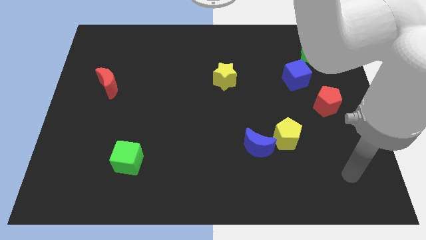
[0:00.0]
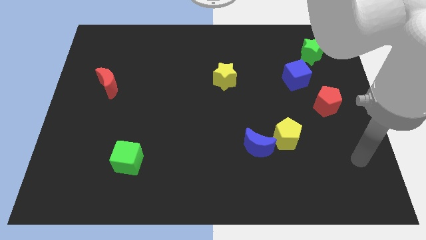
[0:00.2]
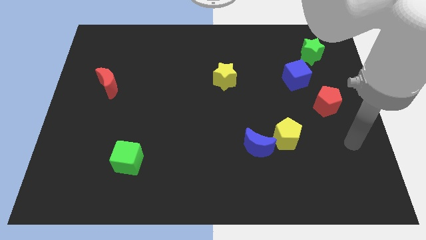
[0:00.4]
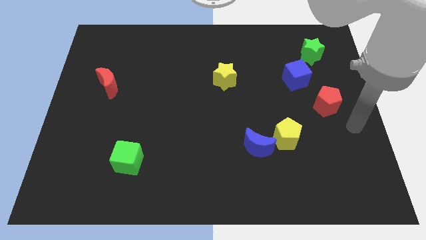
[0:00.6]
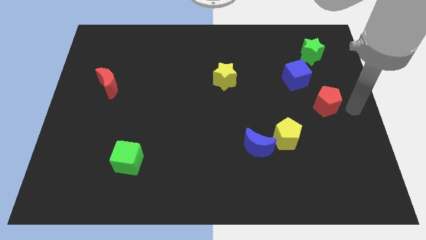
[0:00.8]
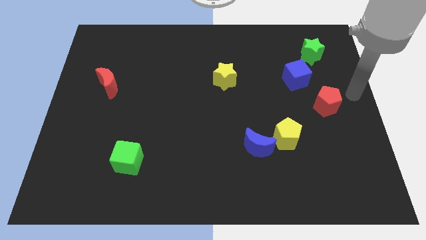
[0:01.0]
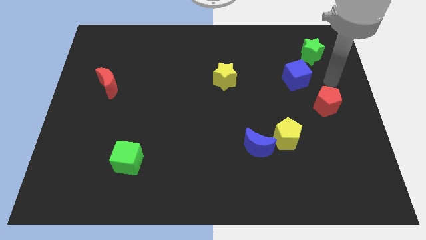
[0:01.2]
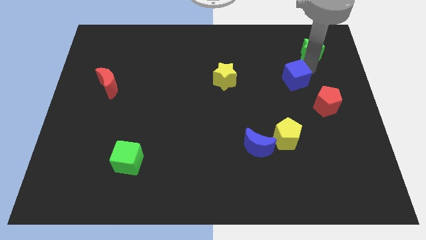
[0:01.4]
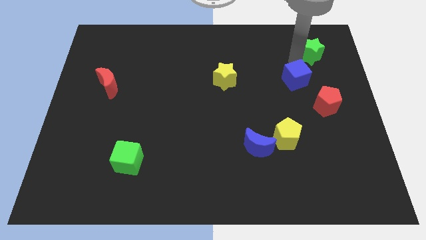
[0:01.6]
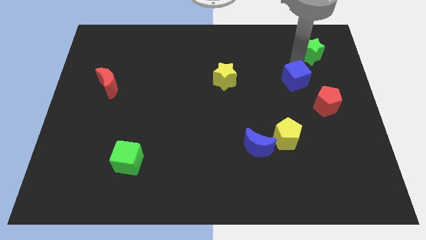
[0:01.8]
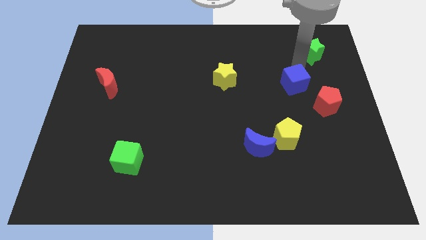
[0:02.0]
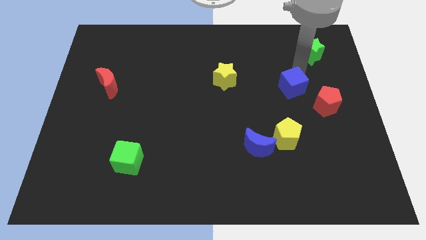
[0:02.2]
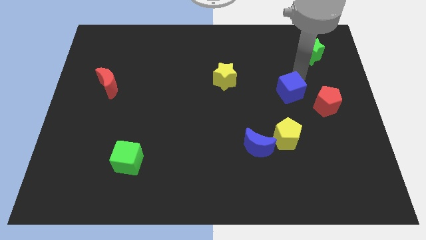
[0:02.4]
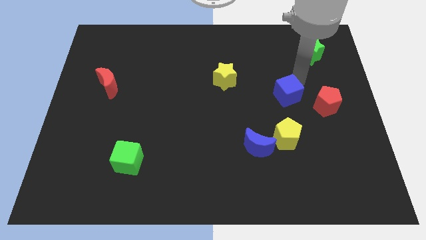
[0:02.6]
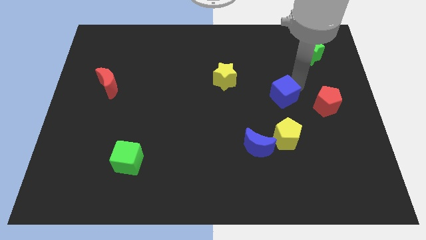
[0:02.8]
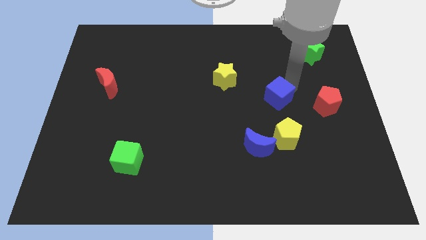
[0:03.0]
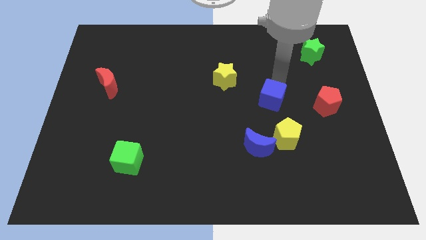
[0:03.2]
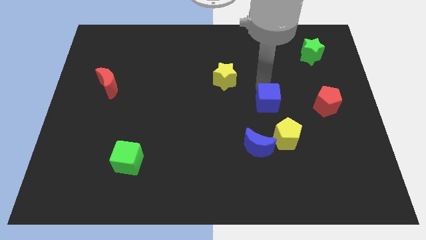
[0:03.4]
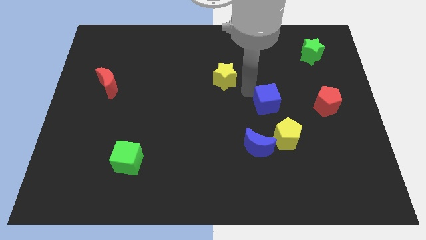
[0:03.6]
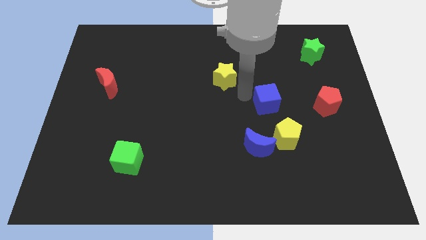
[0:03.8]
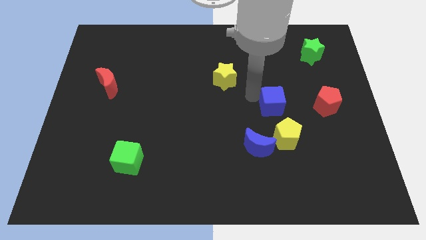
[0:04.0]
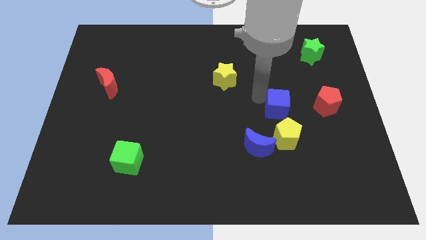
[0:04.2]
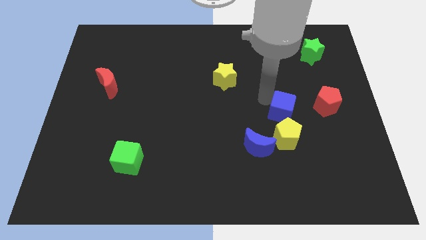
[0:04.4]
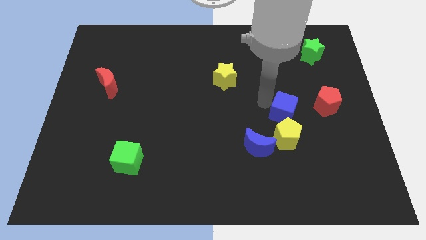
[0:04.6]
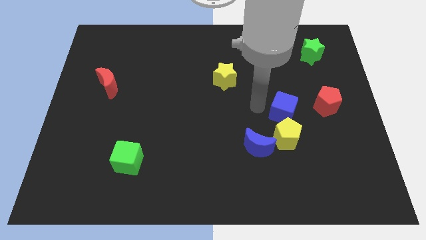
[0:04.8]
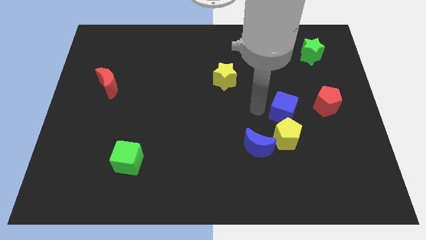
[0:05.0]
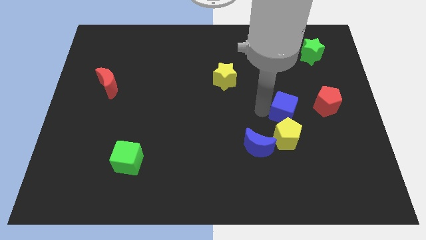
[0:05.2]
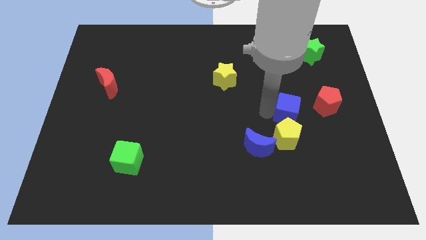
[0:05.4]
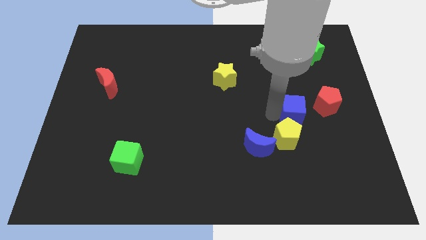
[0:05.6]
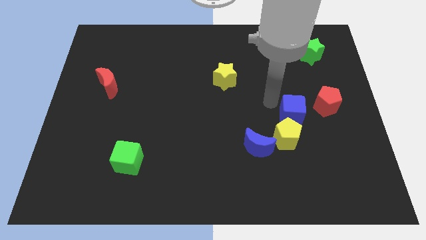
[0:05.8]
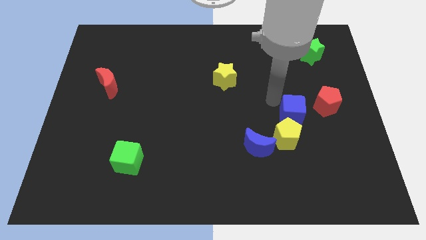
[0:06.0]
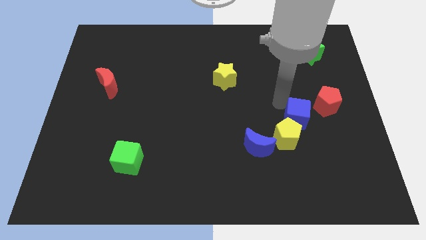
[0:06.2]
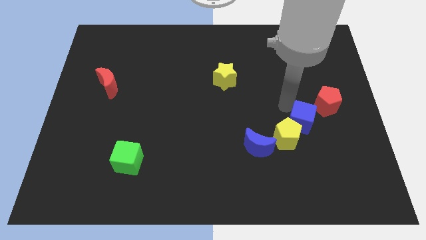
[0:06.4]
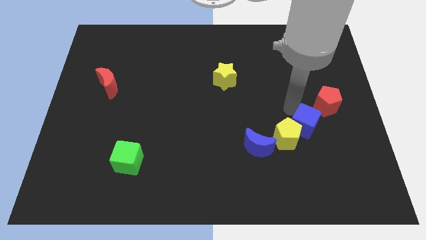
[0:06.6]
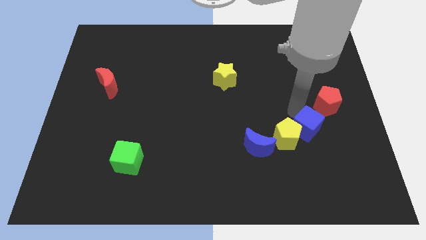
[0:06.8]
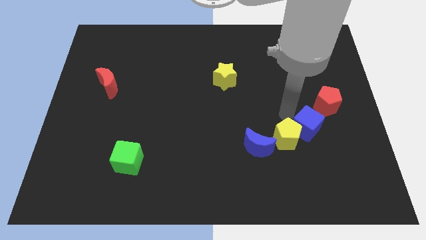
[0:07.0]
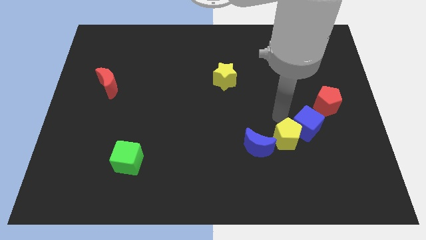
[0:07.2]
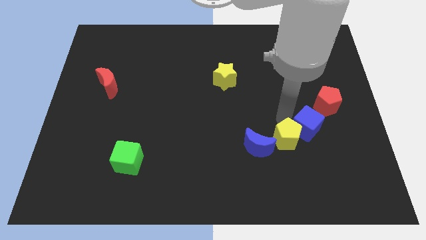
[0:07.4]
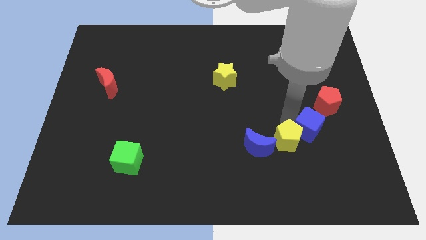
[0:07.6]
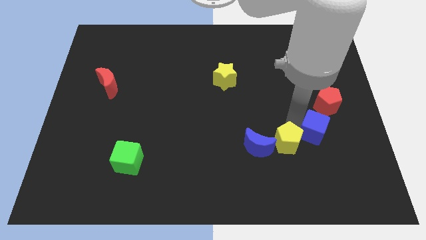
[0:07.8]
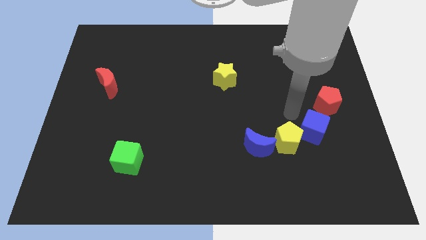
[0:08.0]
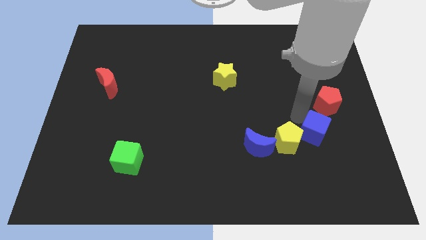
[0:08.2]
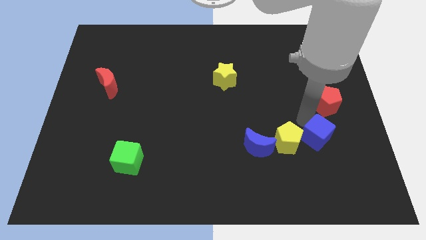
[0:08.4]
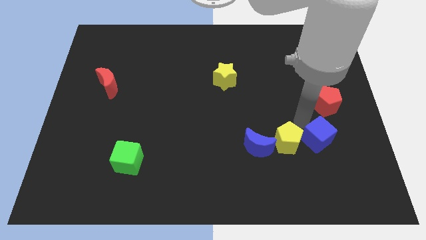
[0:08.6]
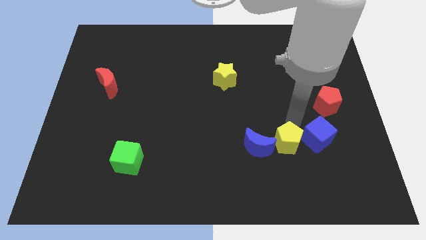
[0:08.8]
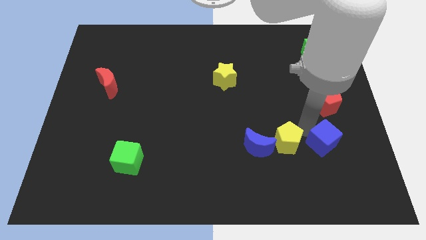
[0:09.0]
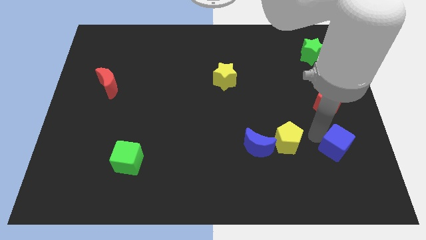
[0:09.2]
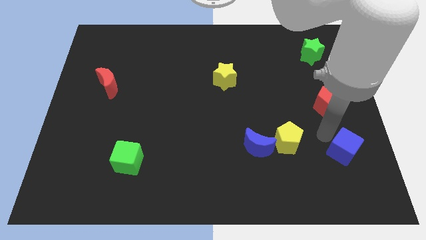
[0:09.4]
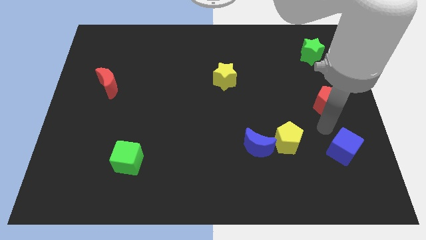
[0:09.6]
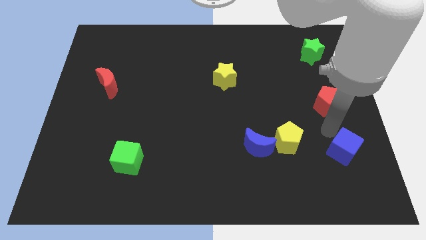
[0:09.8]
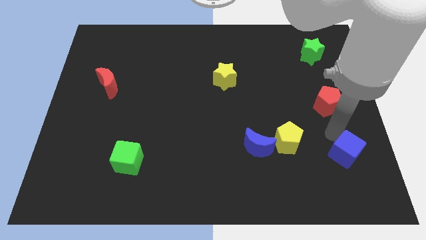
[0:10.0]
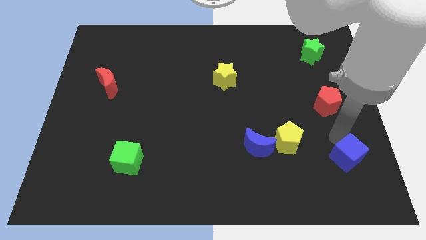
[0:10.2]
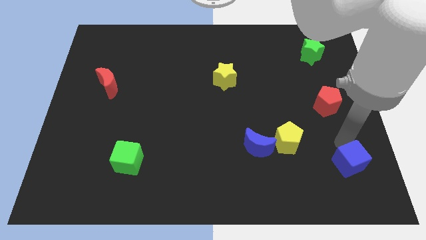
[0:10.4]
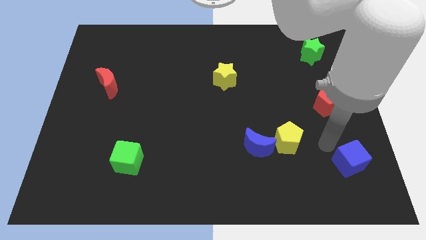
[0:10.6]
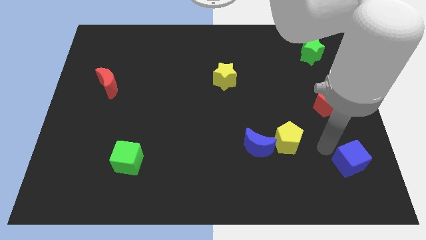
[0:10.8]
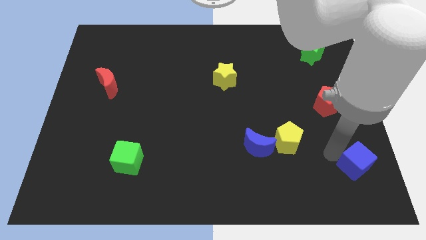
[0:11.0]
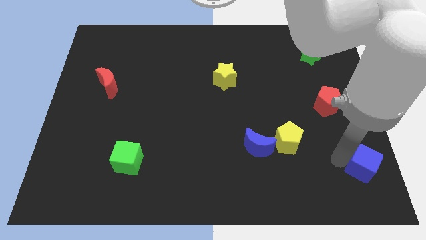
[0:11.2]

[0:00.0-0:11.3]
put the blue cube to the bottom right corner

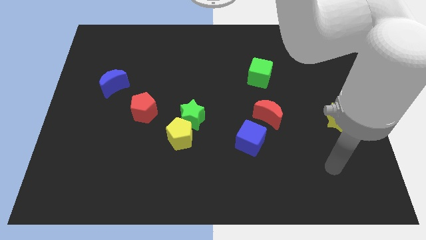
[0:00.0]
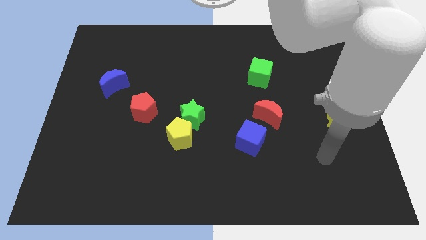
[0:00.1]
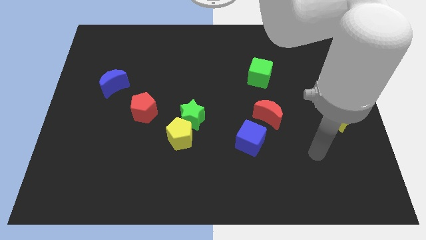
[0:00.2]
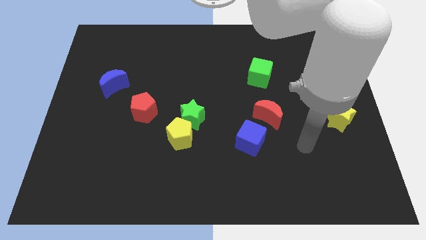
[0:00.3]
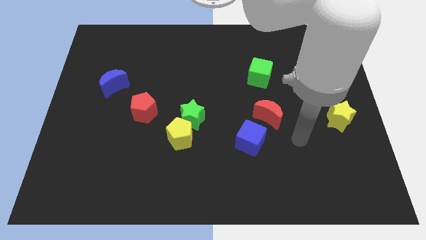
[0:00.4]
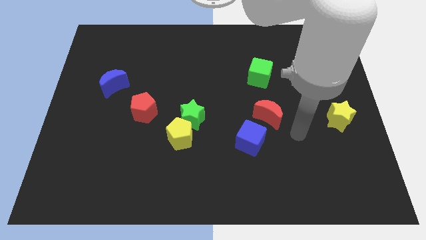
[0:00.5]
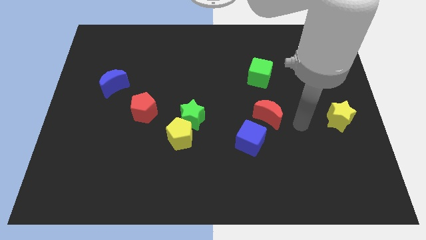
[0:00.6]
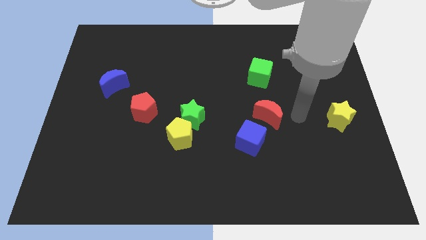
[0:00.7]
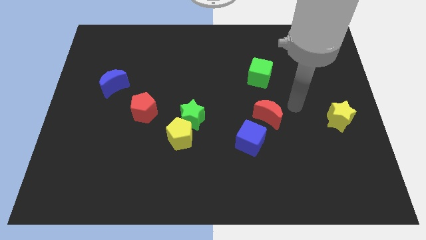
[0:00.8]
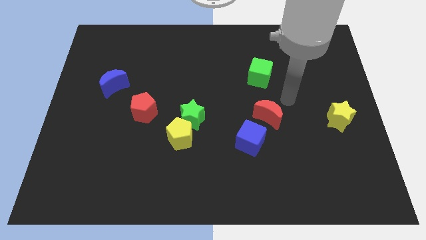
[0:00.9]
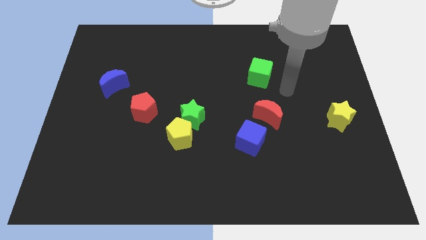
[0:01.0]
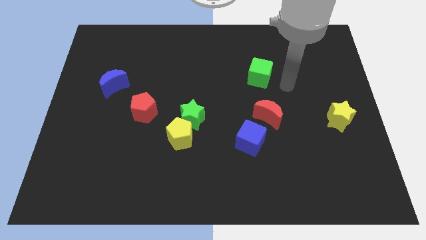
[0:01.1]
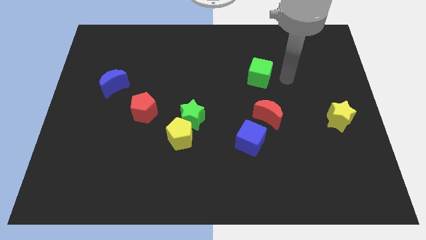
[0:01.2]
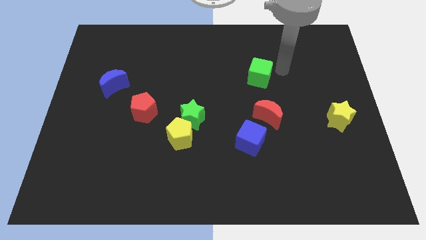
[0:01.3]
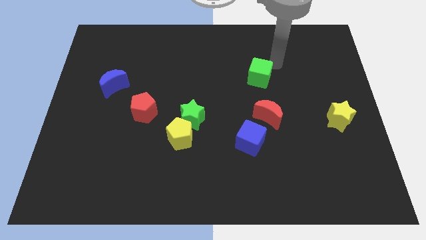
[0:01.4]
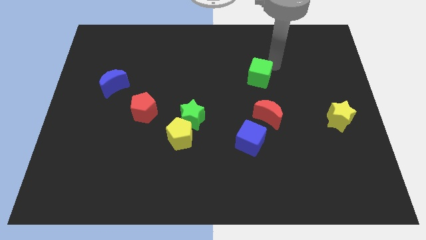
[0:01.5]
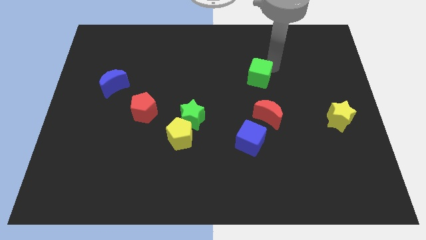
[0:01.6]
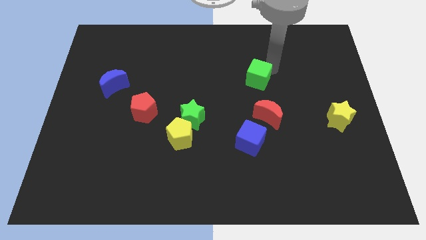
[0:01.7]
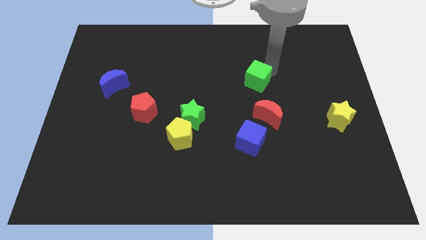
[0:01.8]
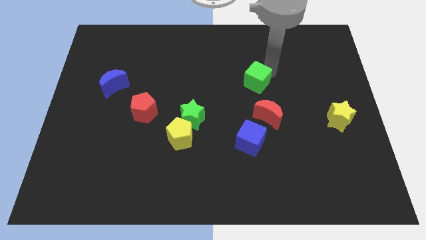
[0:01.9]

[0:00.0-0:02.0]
push the green cube to the center of the board
